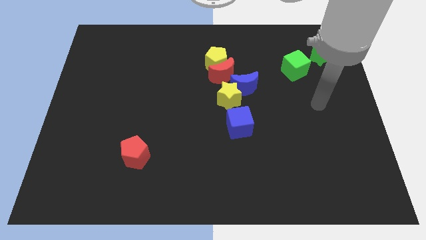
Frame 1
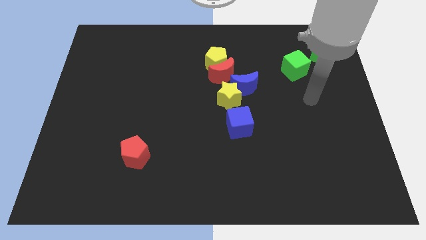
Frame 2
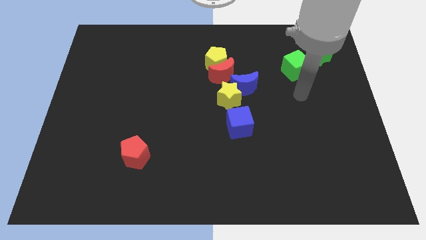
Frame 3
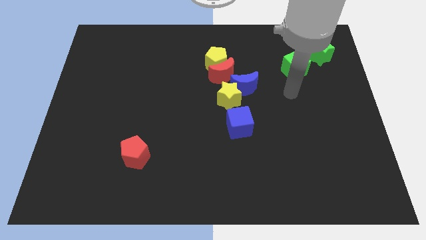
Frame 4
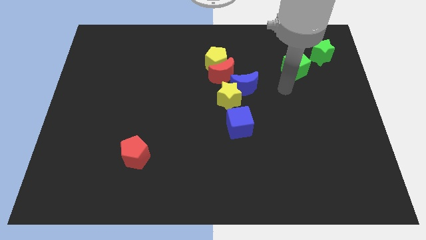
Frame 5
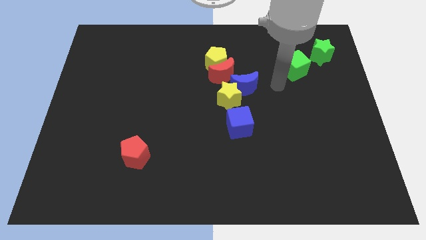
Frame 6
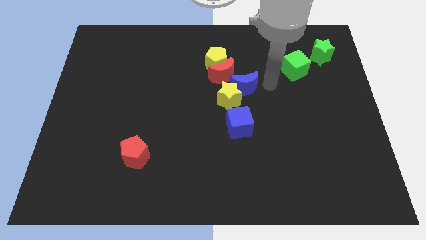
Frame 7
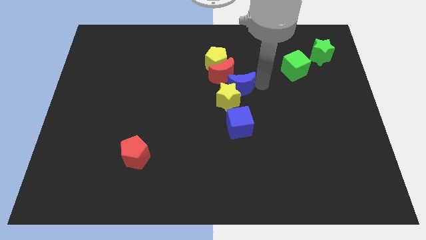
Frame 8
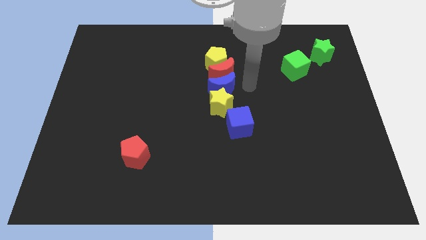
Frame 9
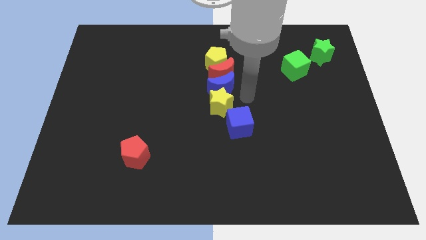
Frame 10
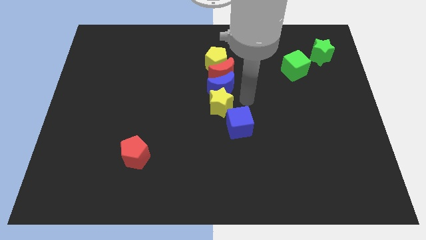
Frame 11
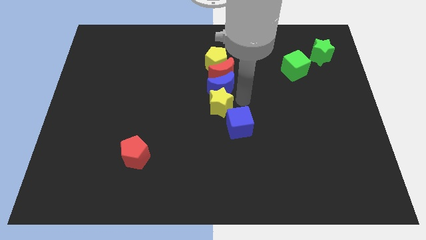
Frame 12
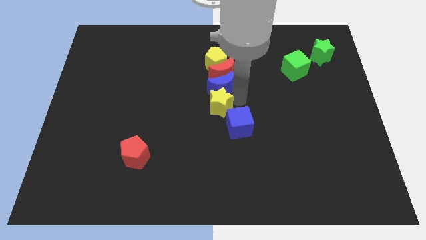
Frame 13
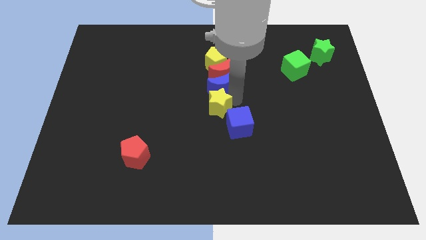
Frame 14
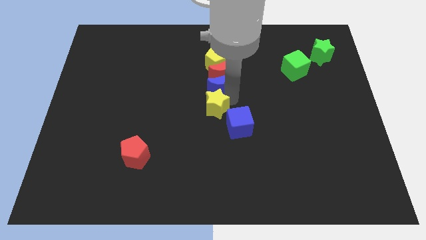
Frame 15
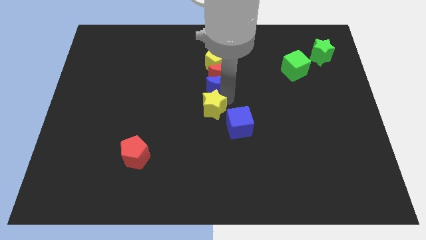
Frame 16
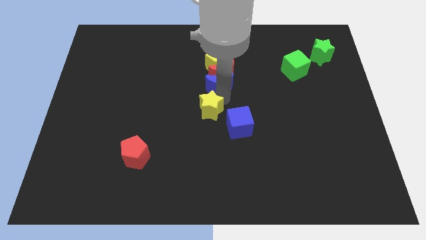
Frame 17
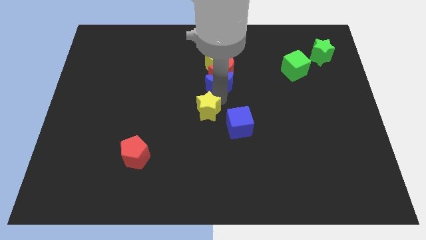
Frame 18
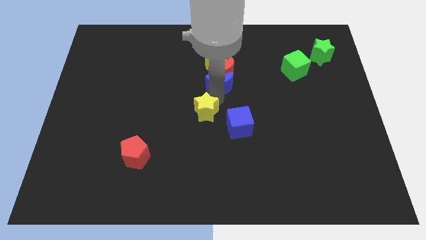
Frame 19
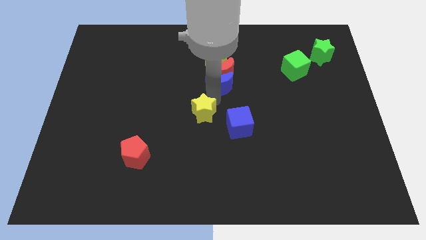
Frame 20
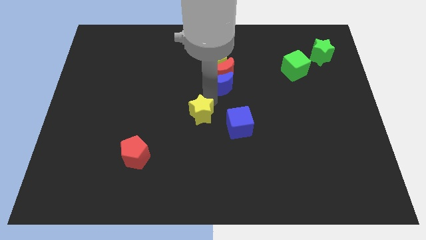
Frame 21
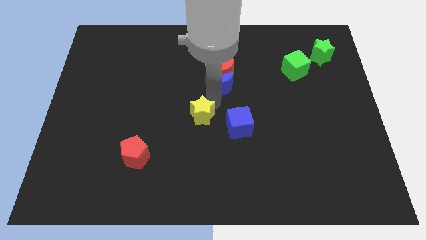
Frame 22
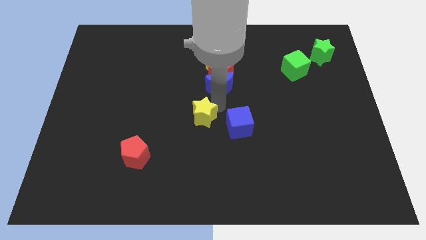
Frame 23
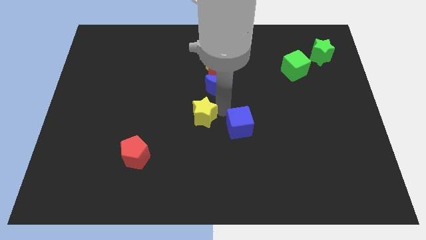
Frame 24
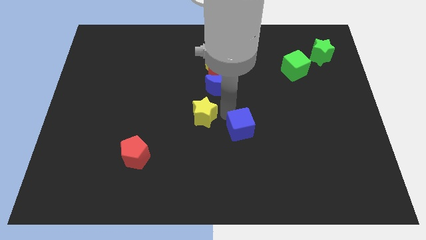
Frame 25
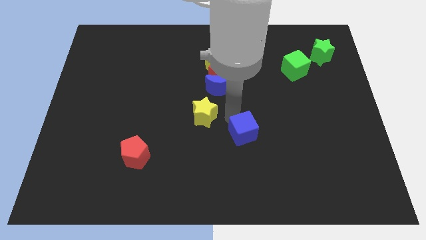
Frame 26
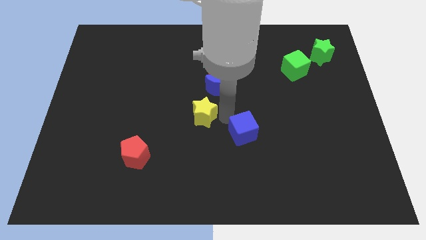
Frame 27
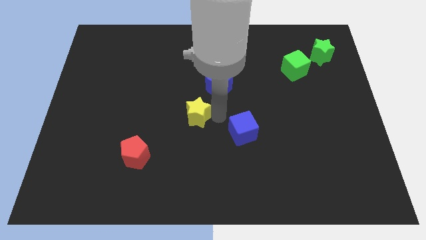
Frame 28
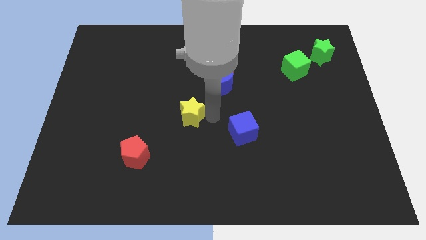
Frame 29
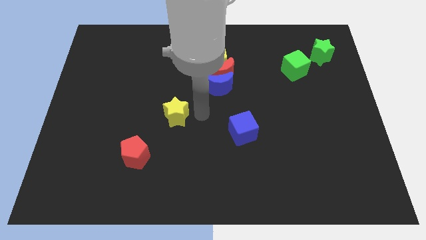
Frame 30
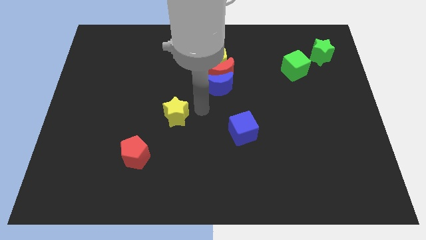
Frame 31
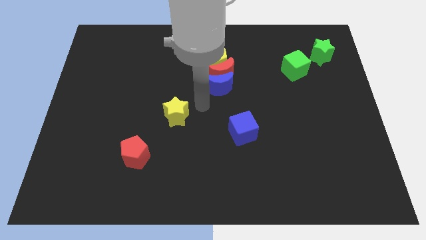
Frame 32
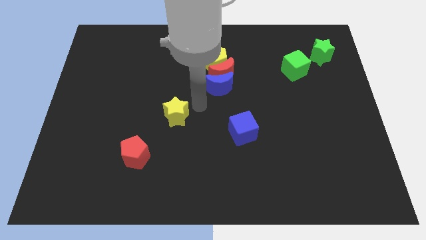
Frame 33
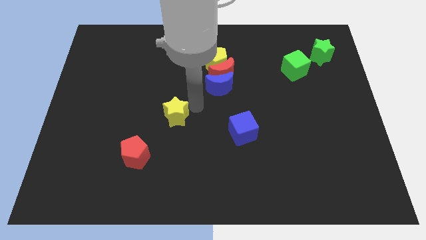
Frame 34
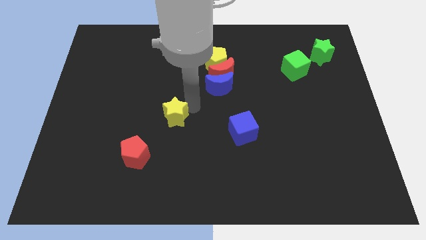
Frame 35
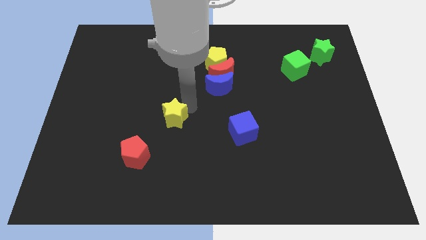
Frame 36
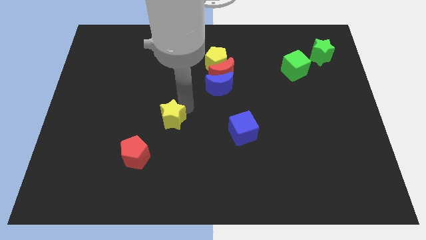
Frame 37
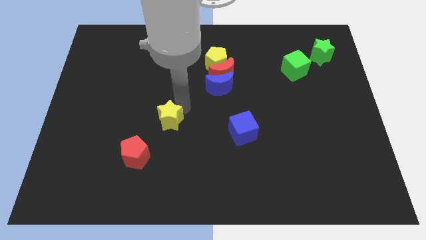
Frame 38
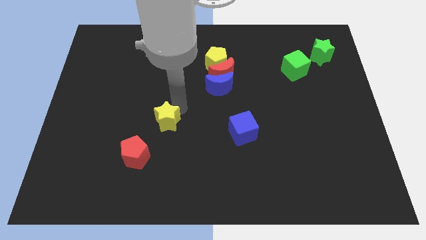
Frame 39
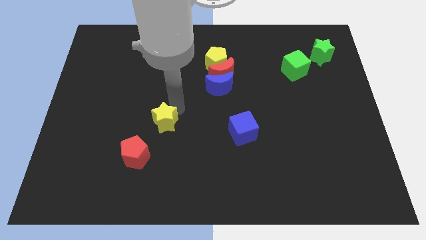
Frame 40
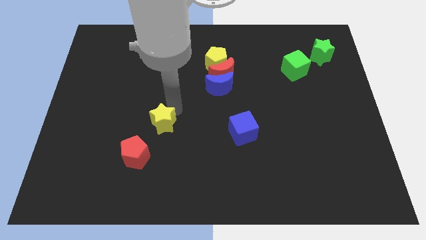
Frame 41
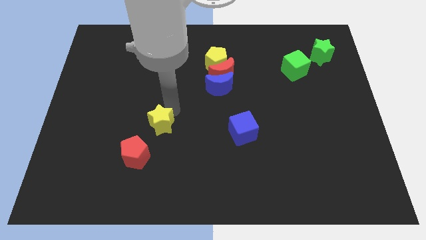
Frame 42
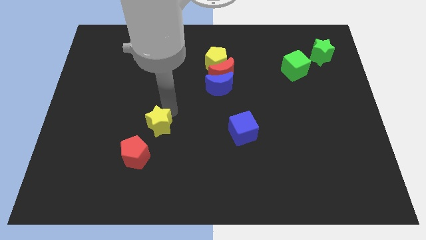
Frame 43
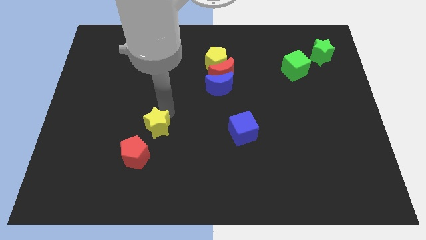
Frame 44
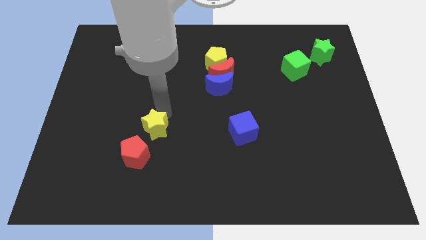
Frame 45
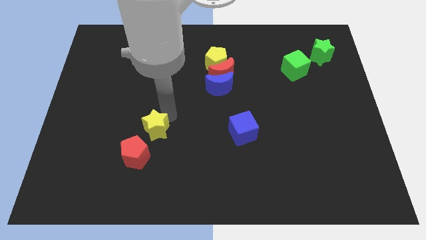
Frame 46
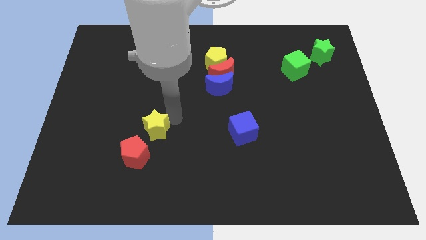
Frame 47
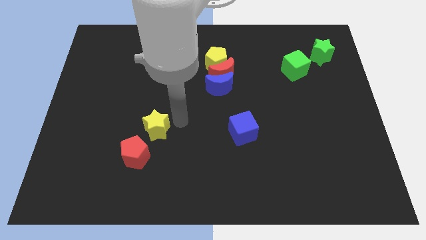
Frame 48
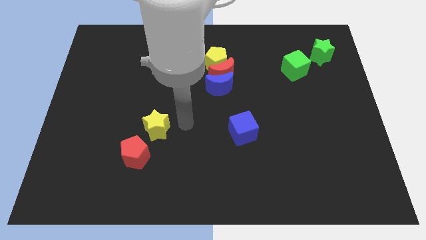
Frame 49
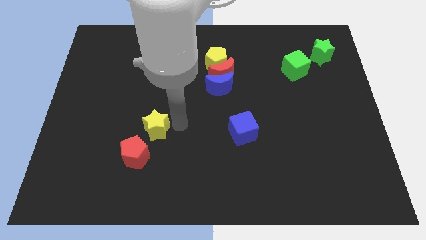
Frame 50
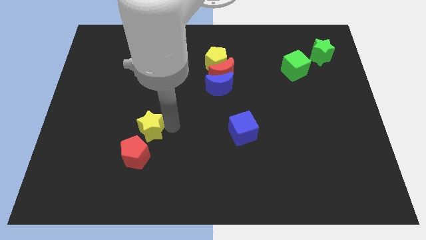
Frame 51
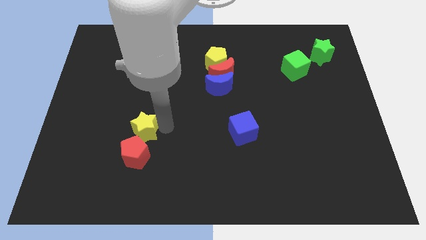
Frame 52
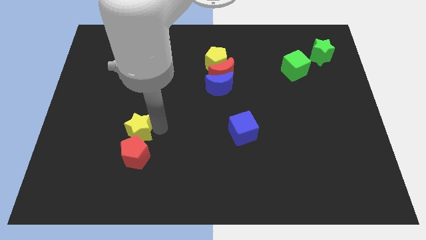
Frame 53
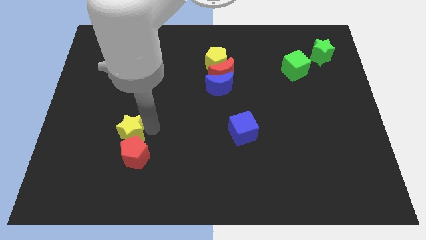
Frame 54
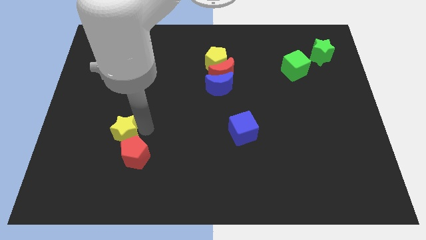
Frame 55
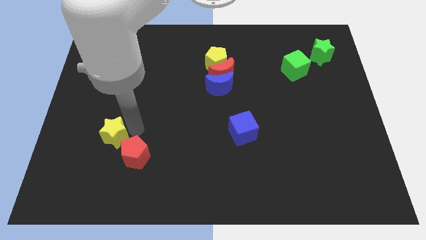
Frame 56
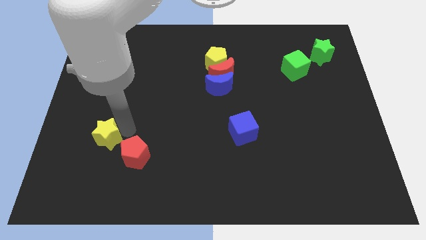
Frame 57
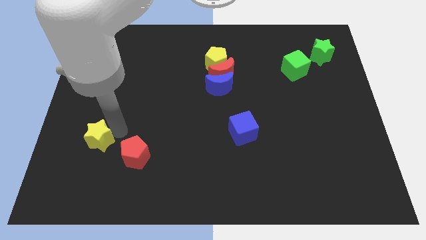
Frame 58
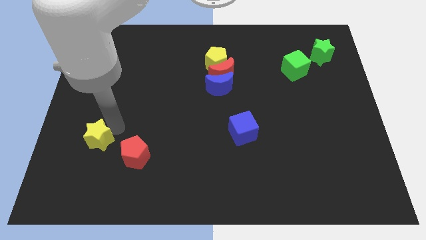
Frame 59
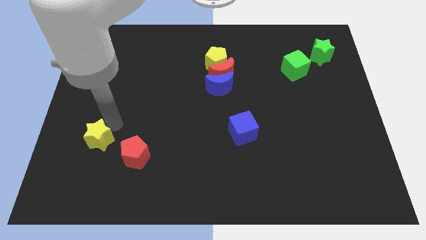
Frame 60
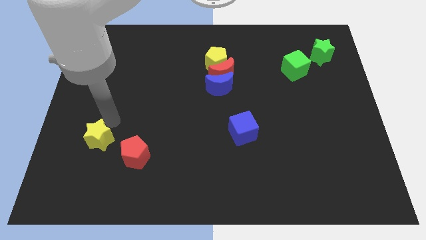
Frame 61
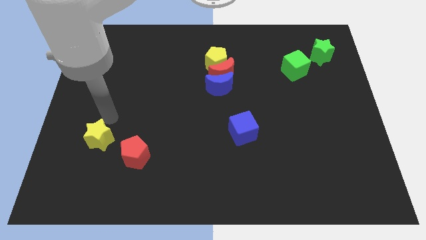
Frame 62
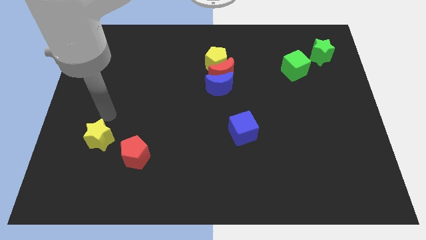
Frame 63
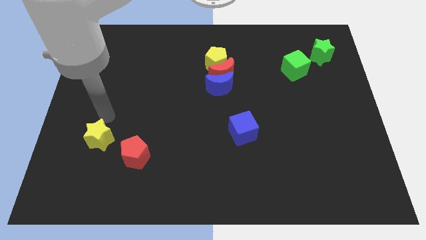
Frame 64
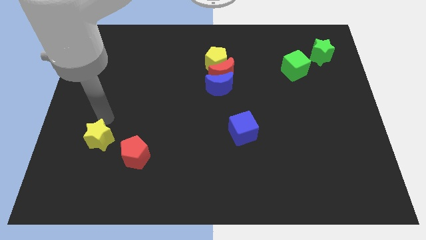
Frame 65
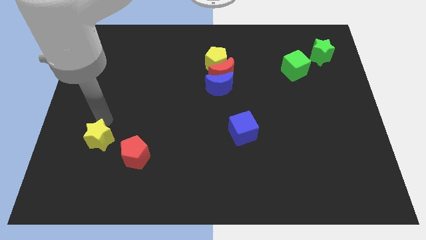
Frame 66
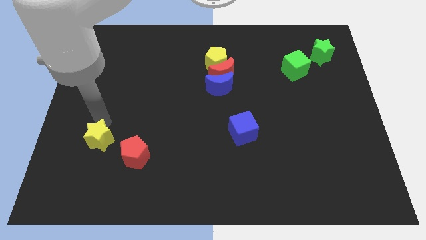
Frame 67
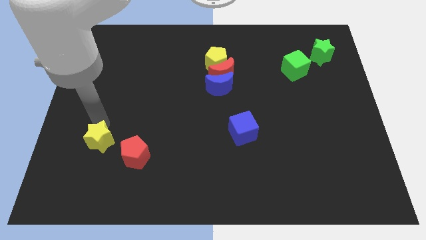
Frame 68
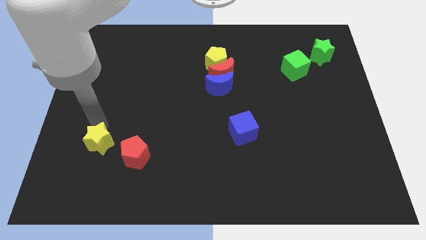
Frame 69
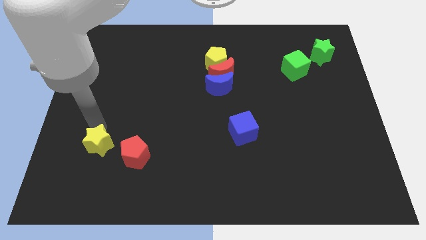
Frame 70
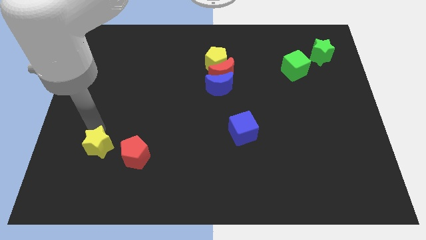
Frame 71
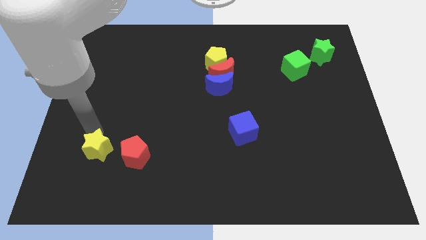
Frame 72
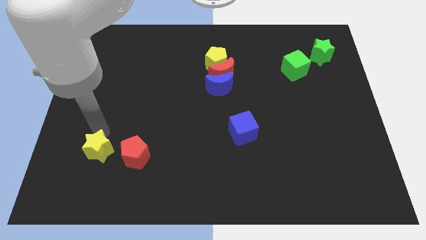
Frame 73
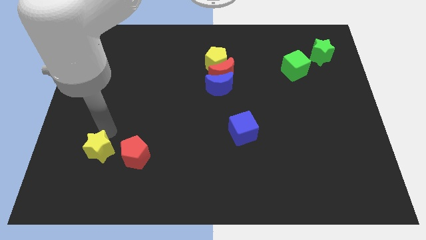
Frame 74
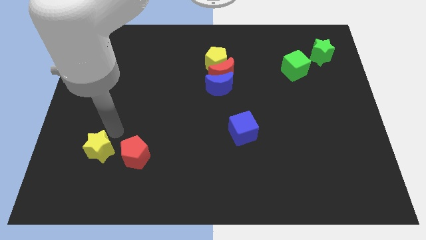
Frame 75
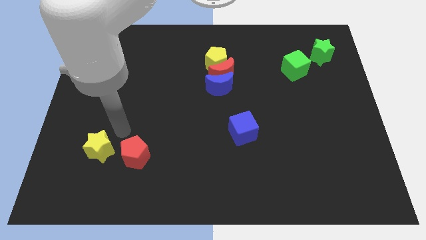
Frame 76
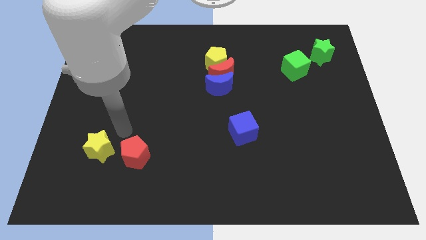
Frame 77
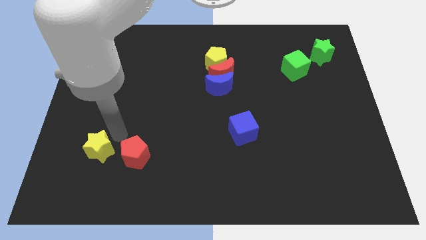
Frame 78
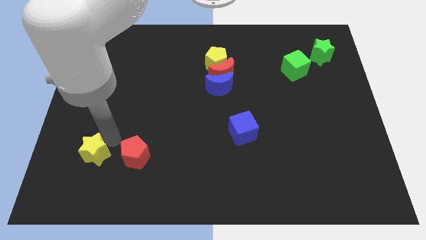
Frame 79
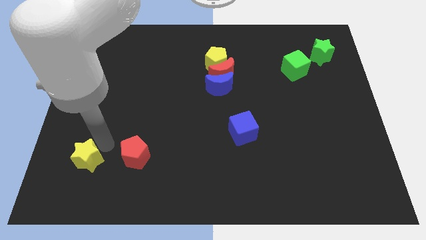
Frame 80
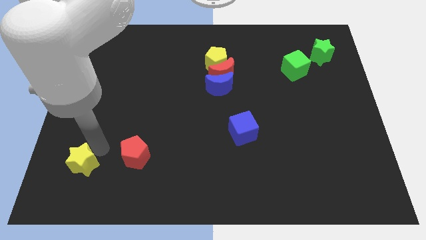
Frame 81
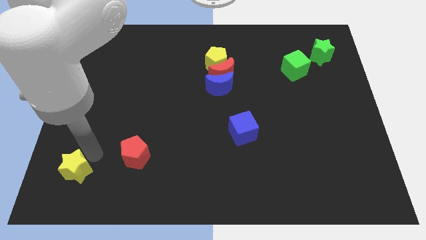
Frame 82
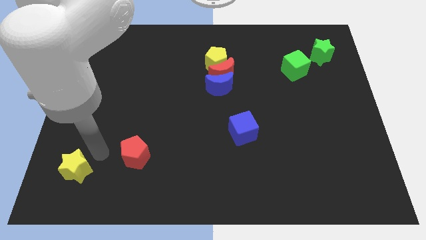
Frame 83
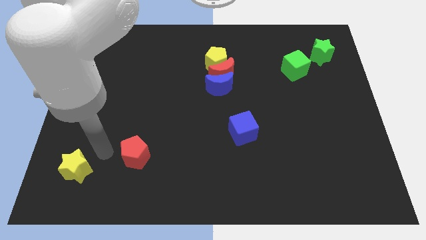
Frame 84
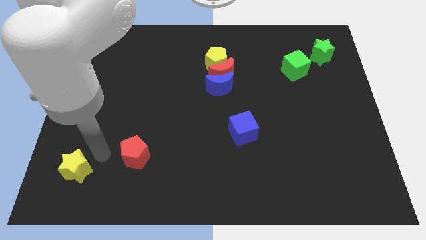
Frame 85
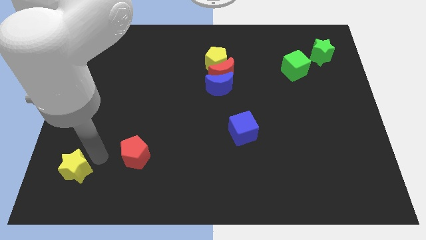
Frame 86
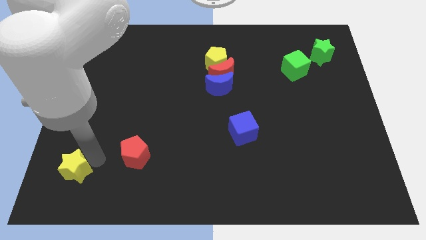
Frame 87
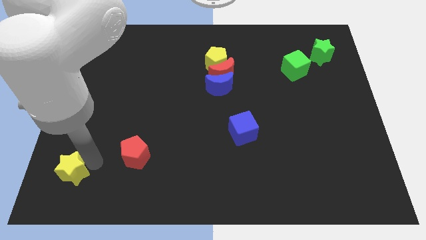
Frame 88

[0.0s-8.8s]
push the yellow star to the bottom left
